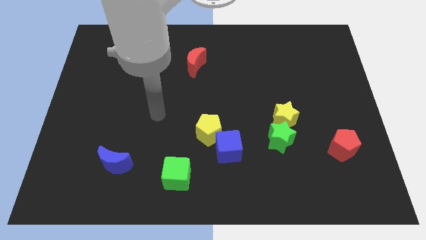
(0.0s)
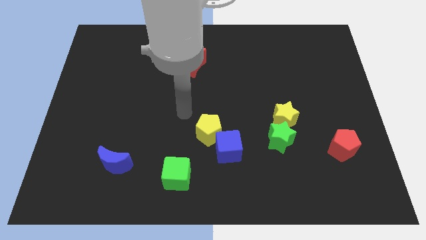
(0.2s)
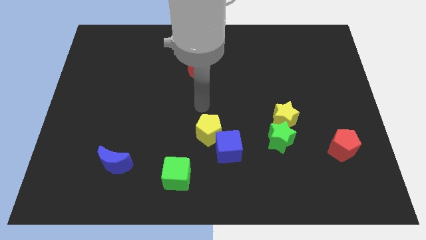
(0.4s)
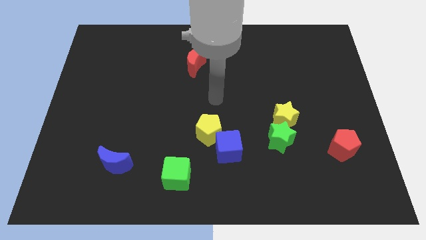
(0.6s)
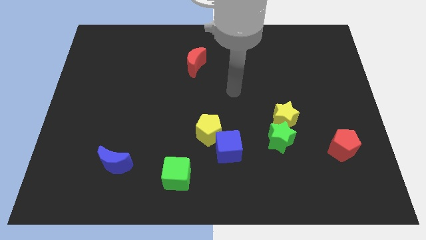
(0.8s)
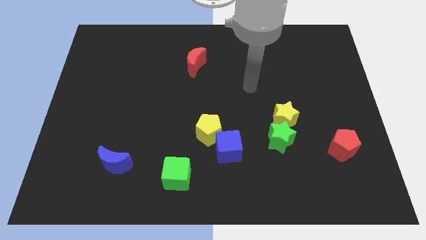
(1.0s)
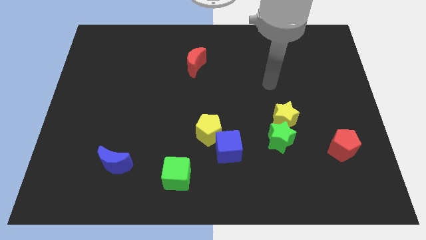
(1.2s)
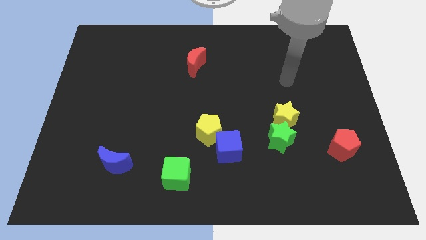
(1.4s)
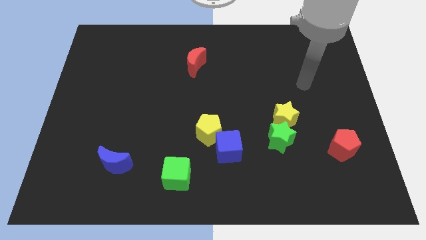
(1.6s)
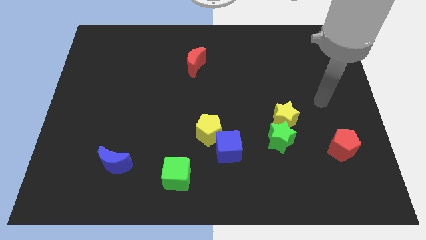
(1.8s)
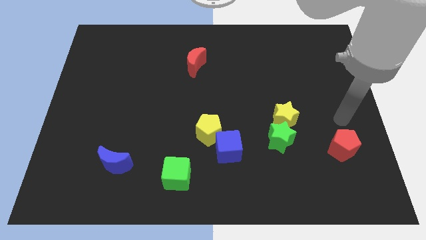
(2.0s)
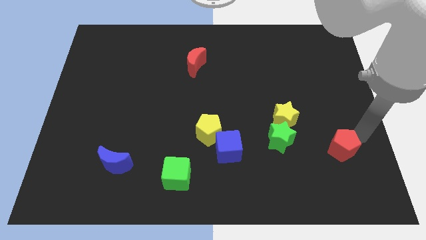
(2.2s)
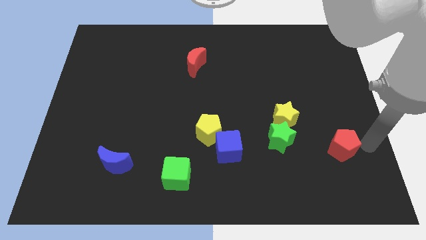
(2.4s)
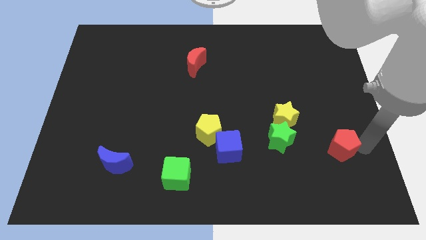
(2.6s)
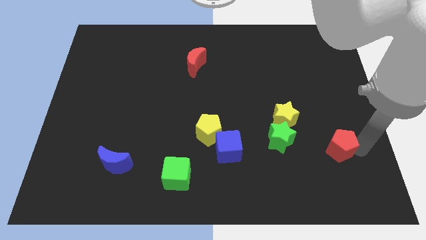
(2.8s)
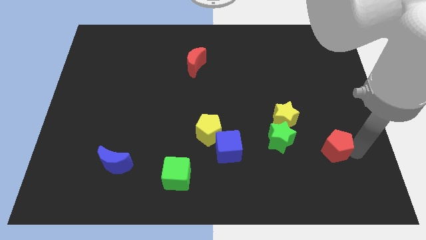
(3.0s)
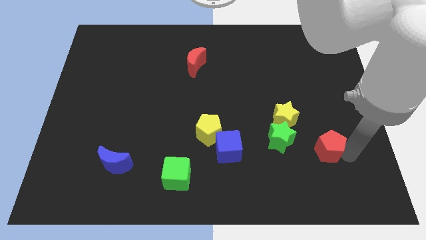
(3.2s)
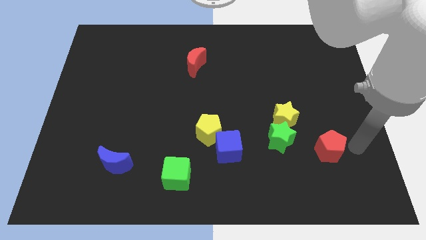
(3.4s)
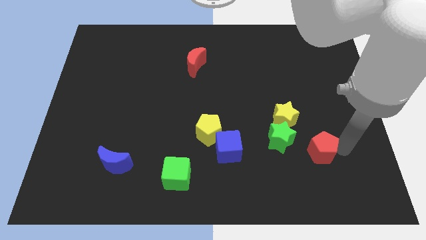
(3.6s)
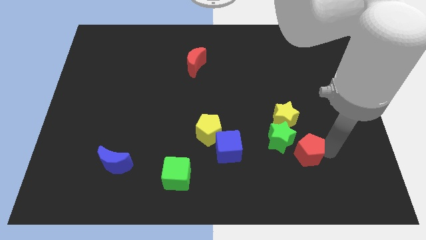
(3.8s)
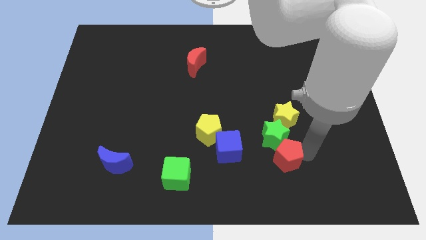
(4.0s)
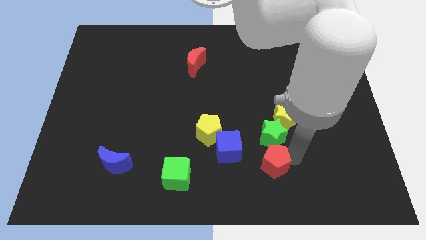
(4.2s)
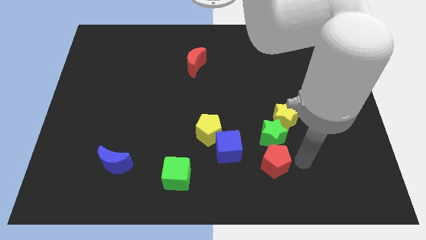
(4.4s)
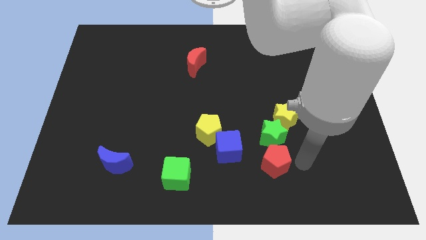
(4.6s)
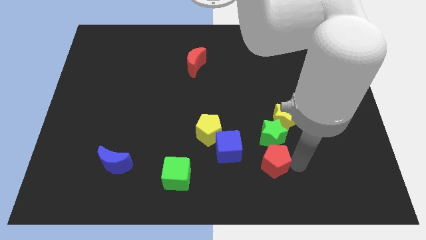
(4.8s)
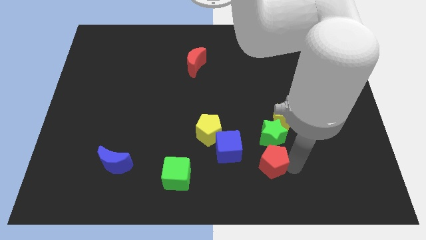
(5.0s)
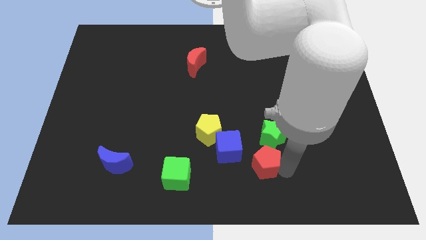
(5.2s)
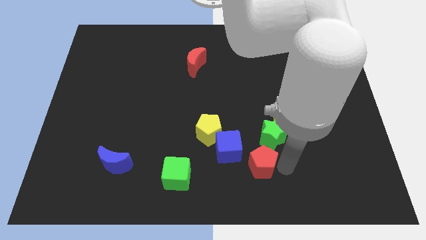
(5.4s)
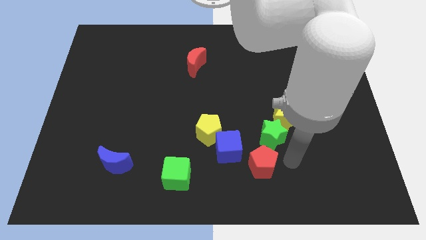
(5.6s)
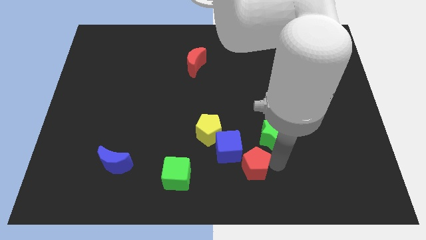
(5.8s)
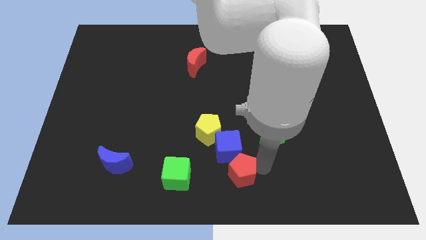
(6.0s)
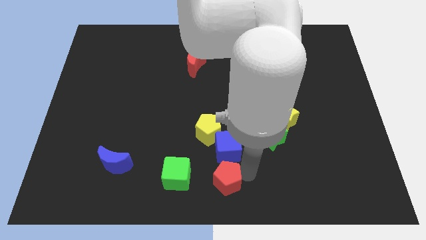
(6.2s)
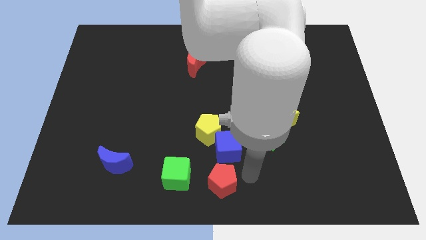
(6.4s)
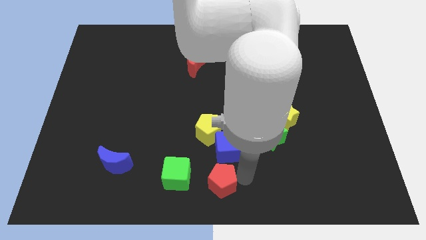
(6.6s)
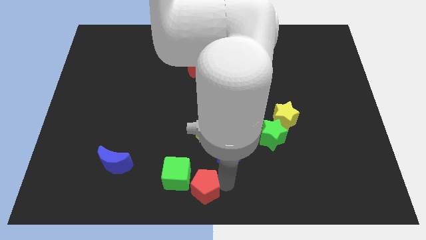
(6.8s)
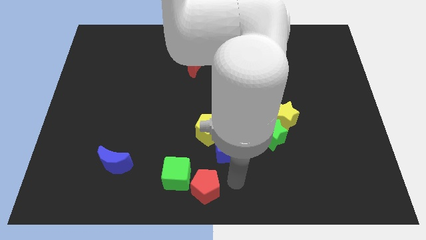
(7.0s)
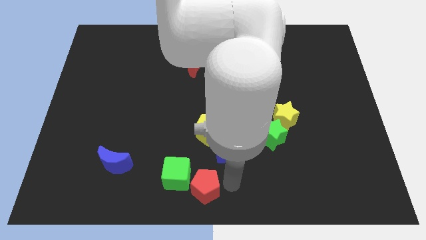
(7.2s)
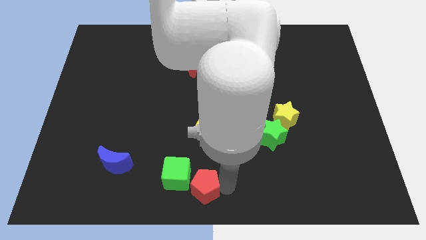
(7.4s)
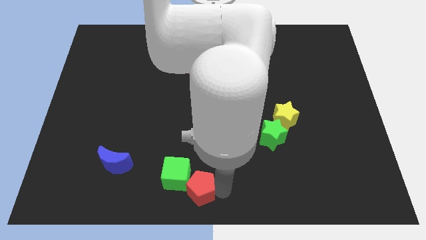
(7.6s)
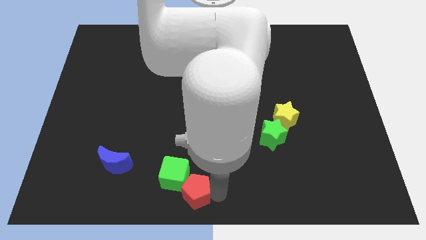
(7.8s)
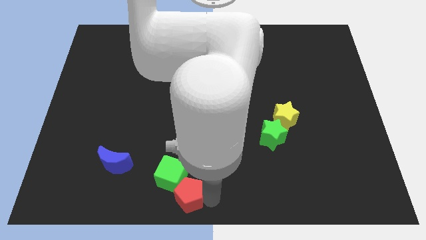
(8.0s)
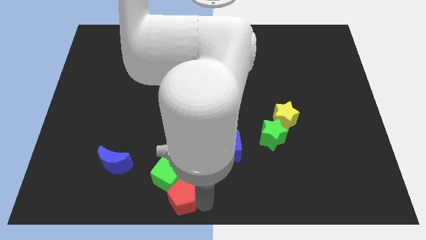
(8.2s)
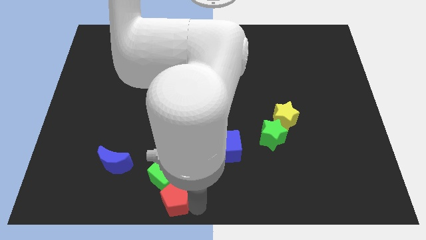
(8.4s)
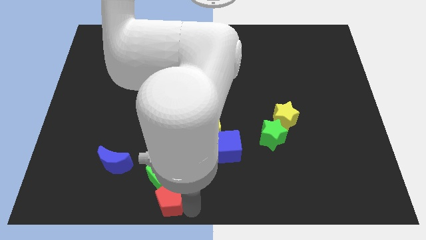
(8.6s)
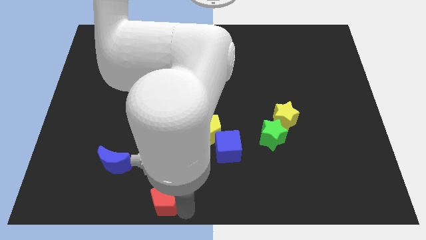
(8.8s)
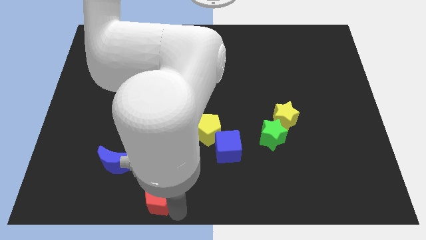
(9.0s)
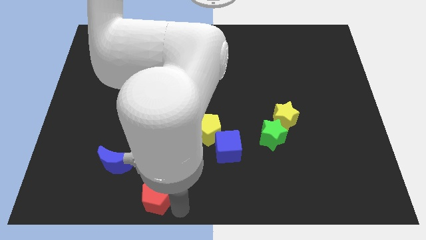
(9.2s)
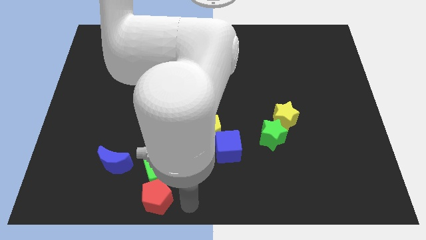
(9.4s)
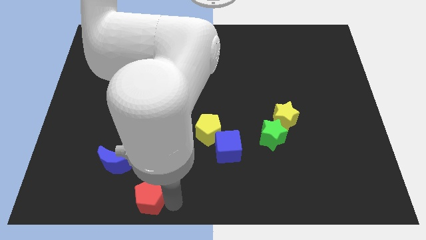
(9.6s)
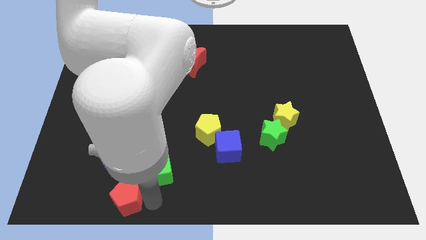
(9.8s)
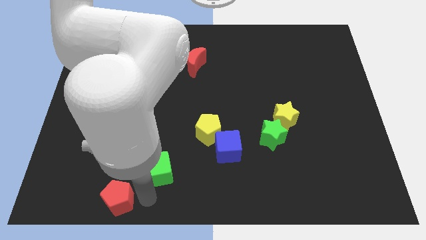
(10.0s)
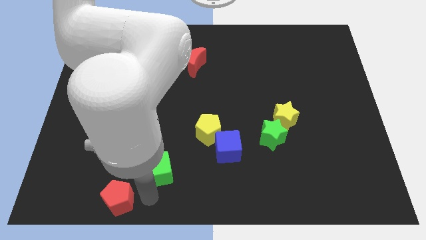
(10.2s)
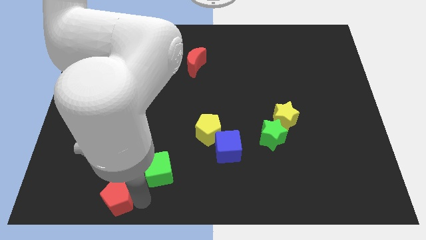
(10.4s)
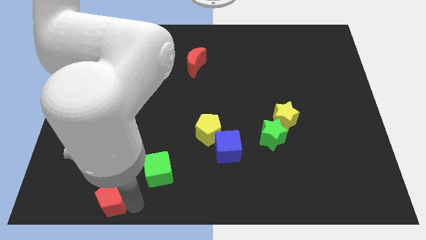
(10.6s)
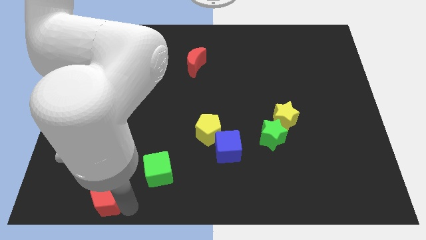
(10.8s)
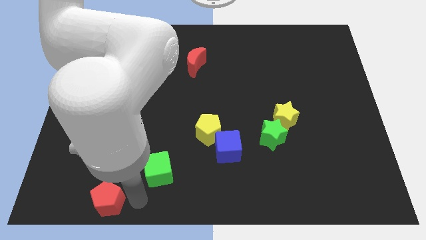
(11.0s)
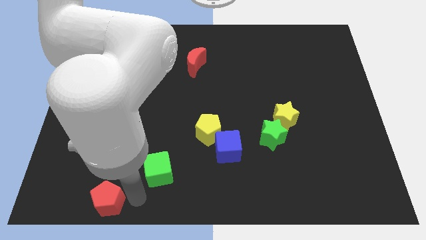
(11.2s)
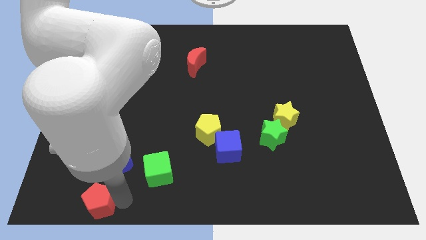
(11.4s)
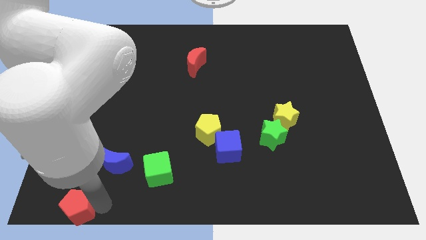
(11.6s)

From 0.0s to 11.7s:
slide the red pentagon to the bottom left of the board
